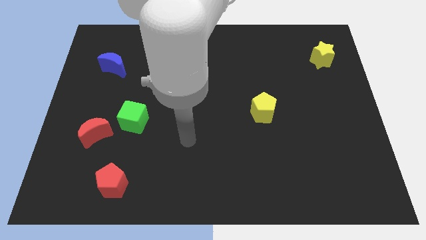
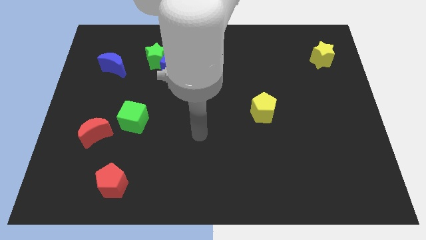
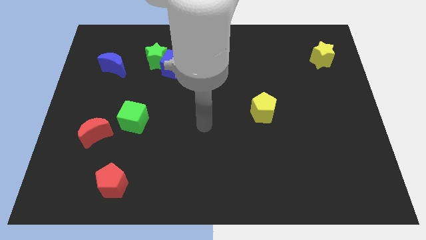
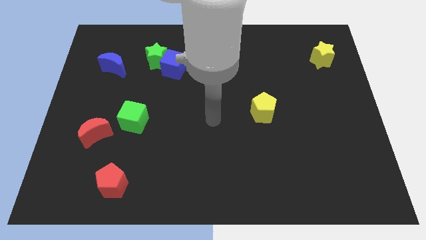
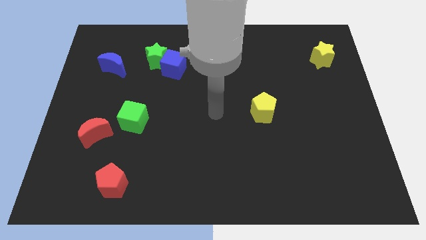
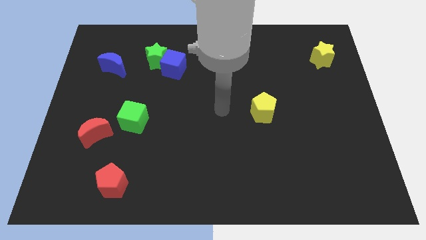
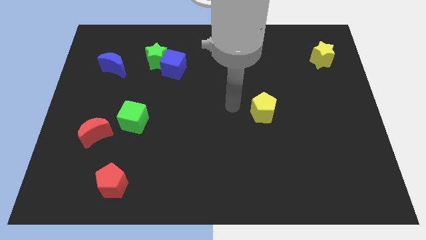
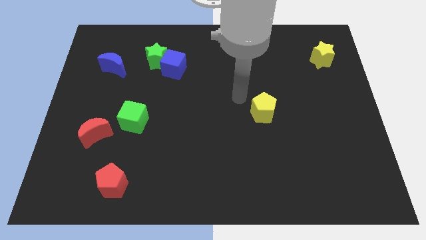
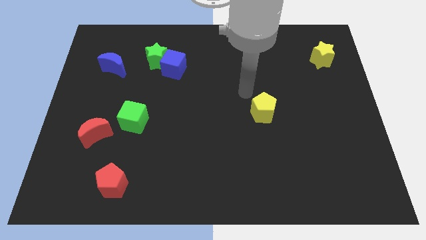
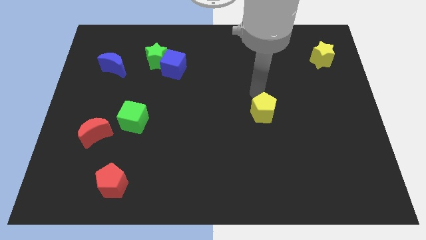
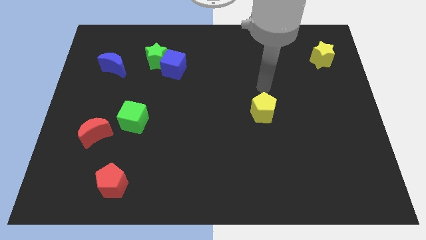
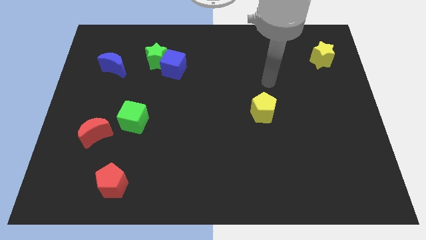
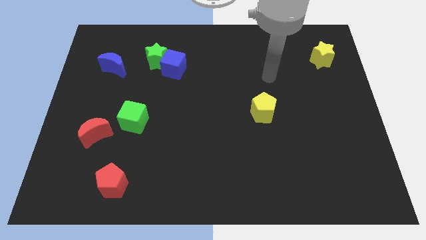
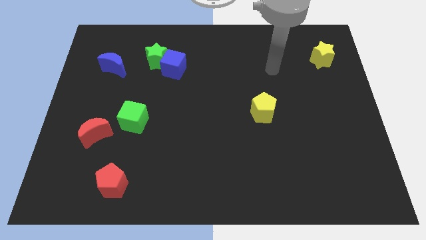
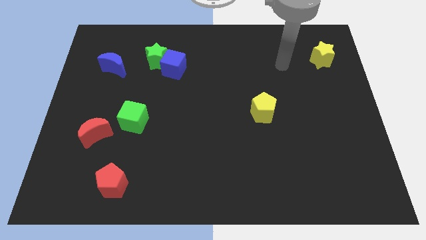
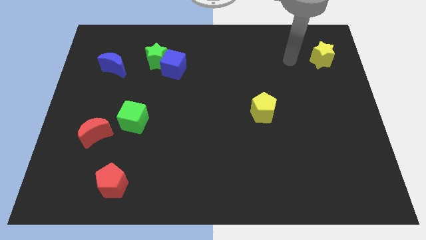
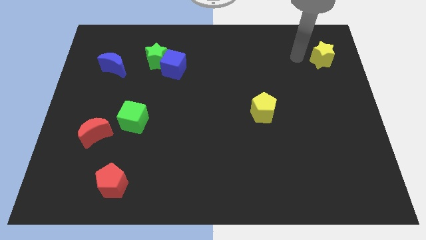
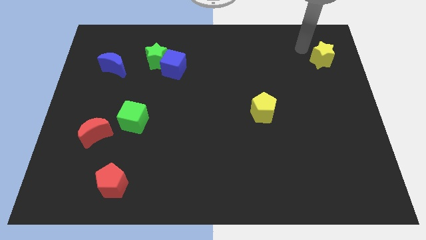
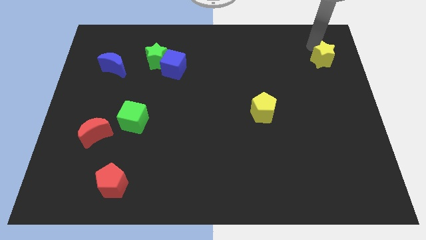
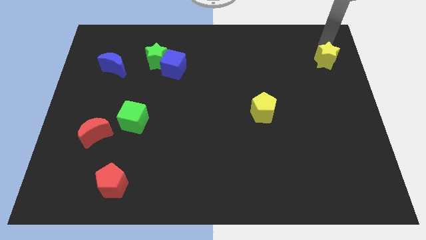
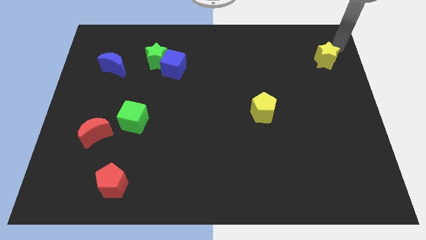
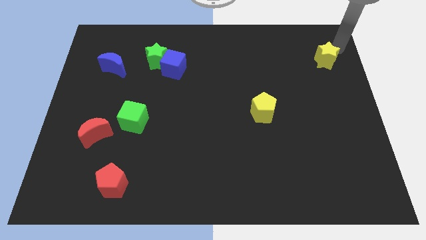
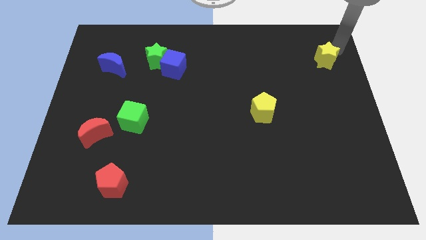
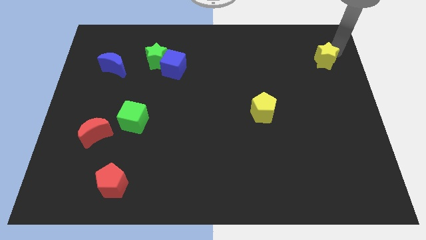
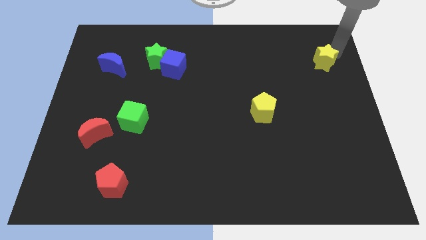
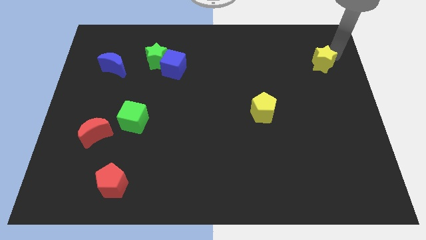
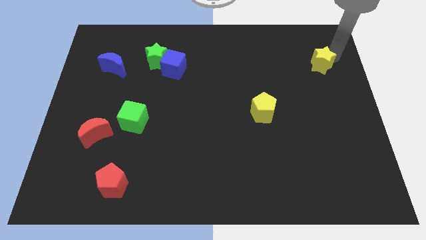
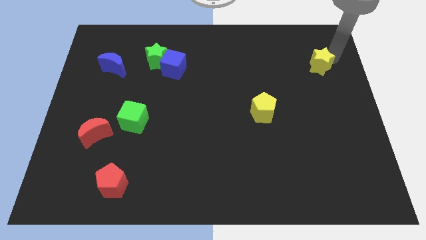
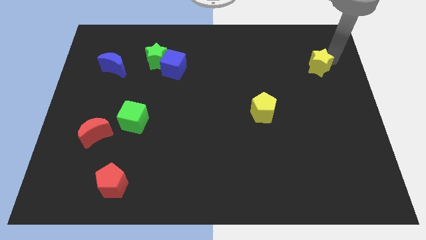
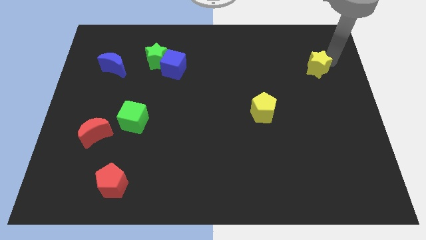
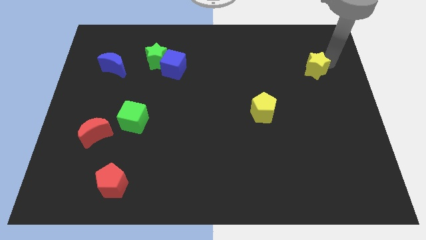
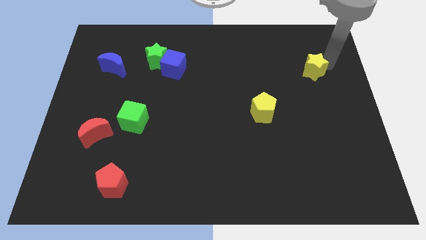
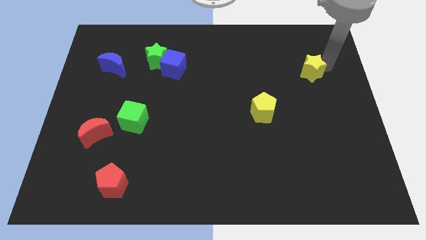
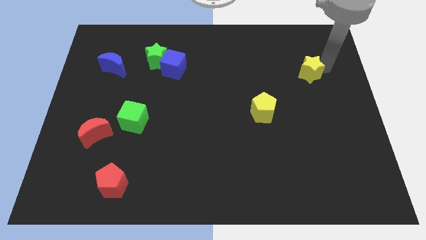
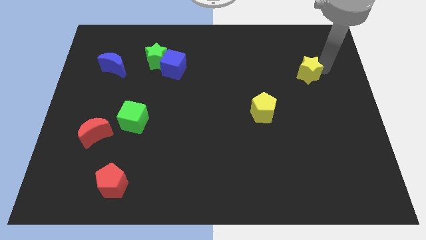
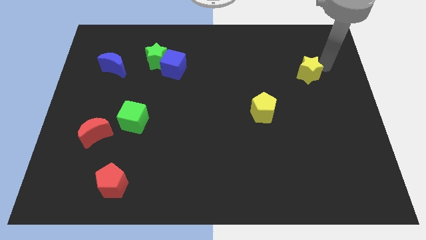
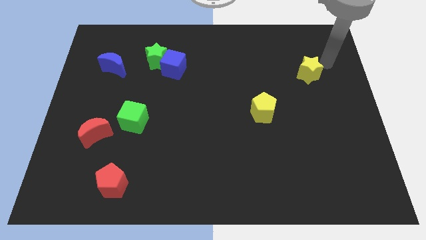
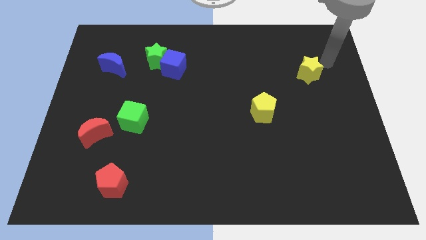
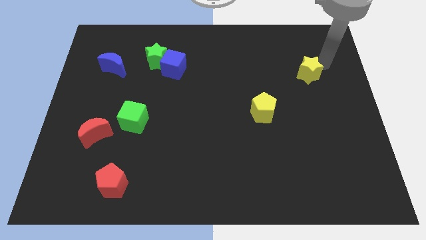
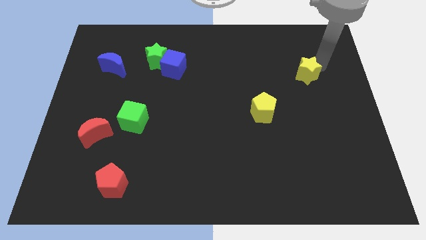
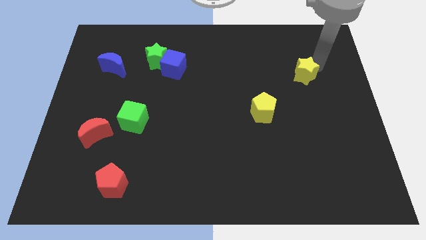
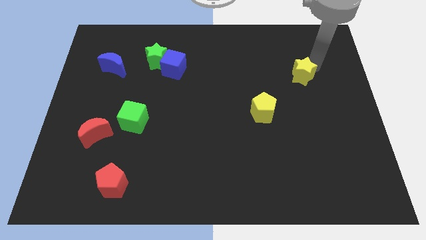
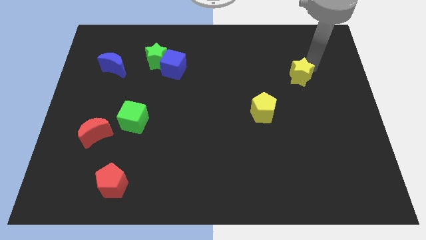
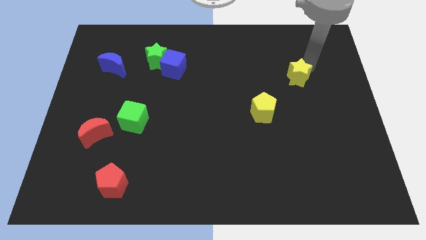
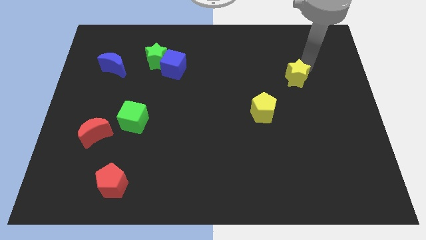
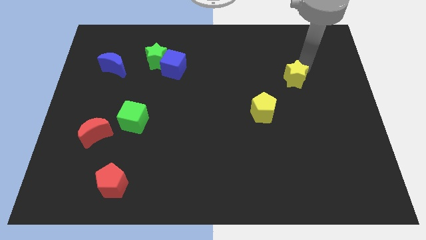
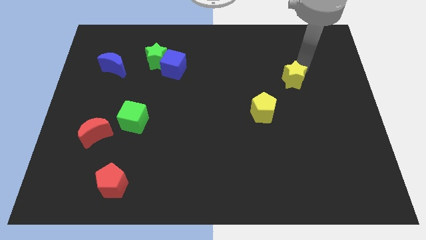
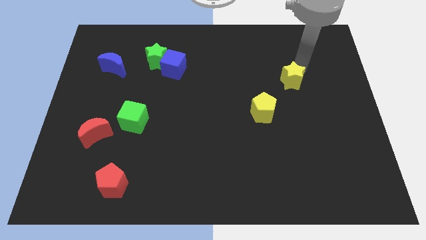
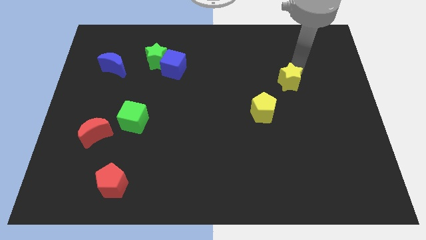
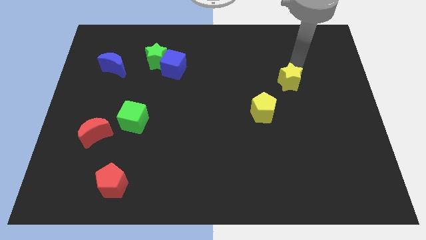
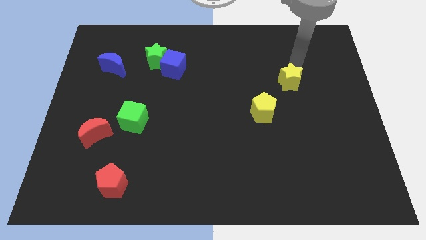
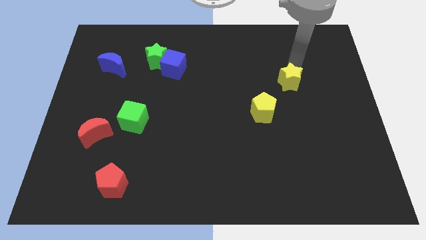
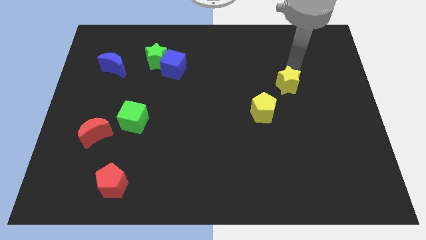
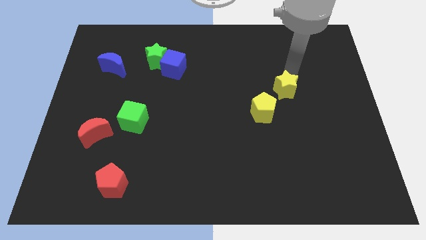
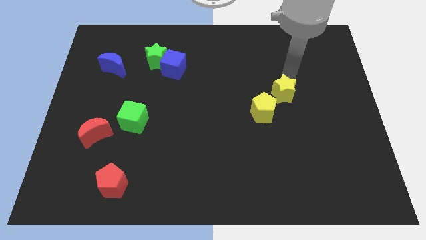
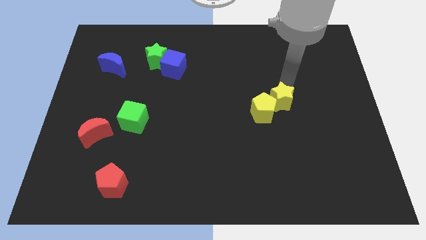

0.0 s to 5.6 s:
push the yellow star towards the yellow pentagon
